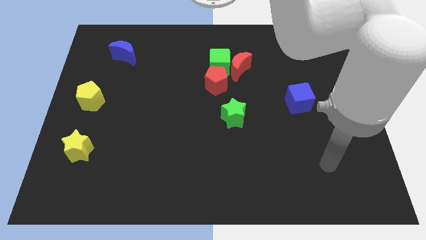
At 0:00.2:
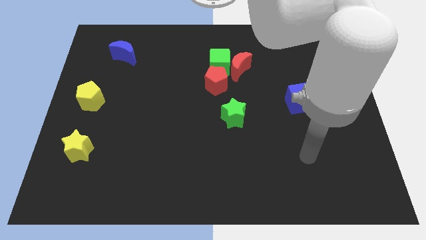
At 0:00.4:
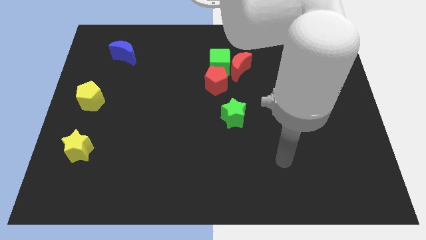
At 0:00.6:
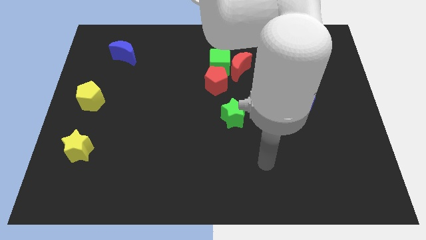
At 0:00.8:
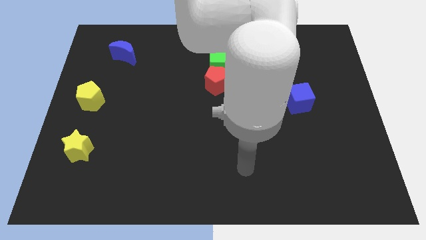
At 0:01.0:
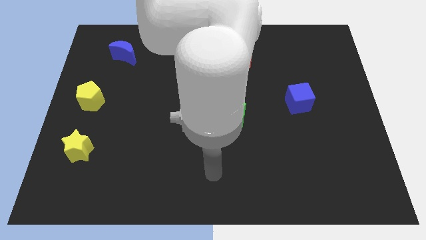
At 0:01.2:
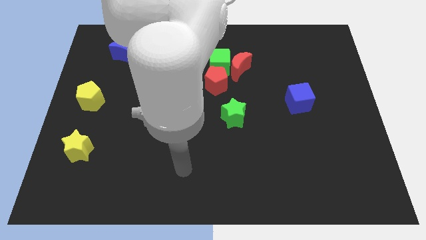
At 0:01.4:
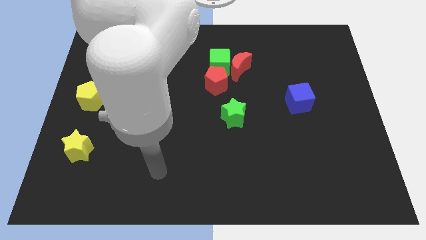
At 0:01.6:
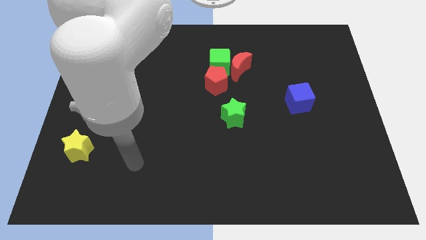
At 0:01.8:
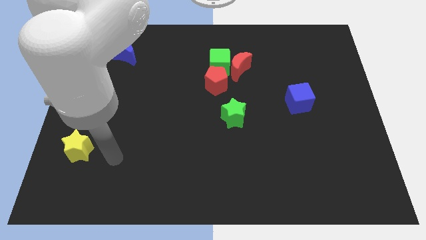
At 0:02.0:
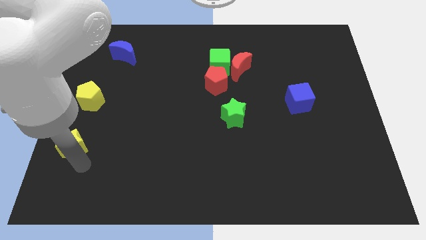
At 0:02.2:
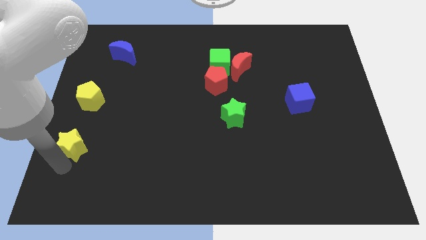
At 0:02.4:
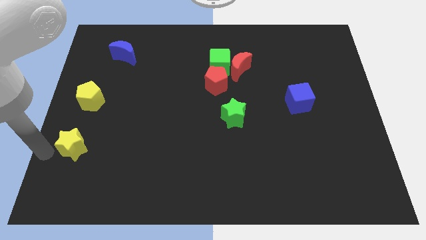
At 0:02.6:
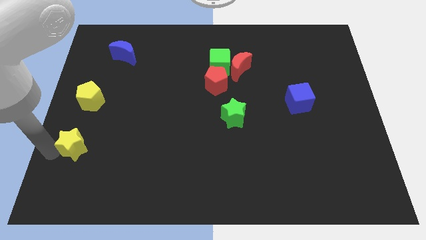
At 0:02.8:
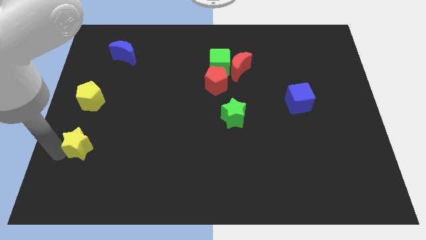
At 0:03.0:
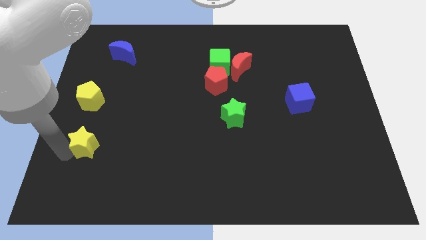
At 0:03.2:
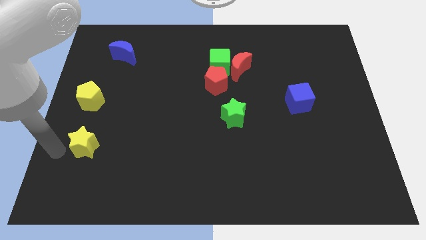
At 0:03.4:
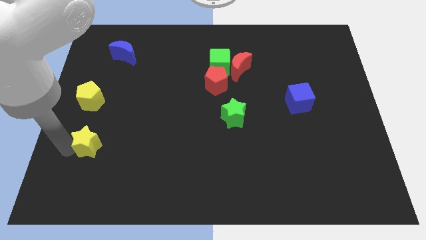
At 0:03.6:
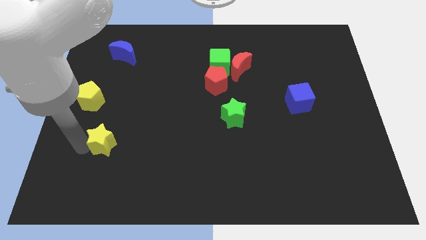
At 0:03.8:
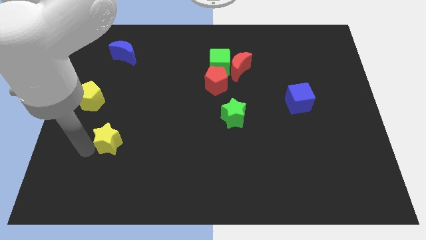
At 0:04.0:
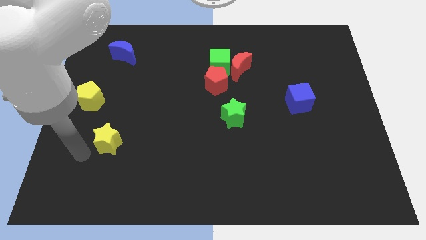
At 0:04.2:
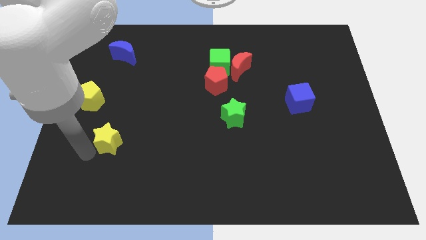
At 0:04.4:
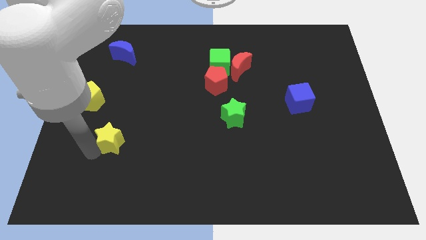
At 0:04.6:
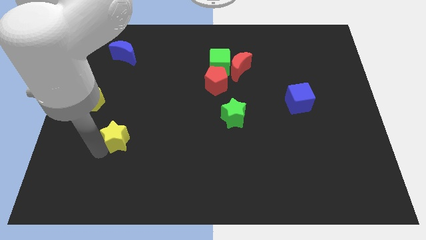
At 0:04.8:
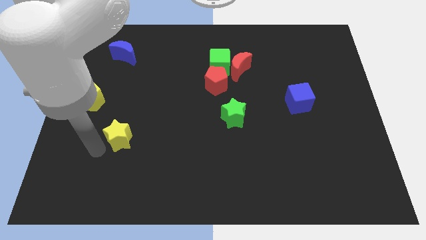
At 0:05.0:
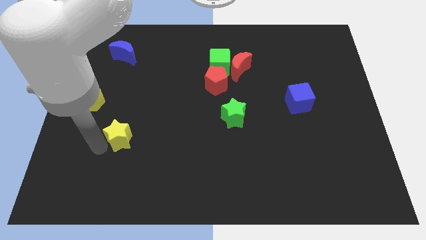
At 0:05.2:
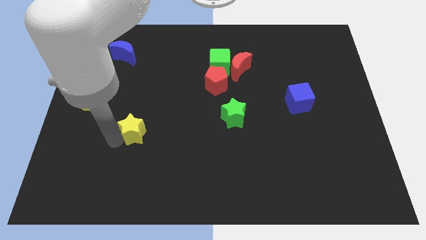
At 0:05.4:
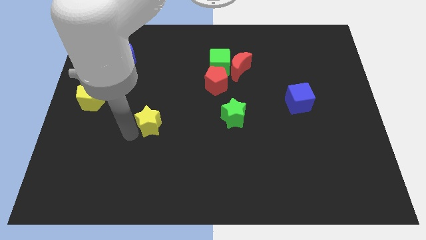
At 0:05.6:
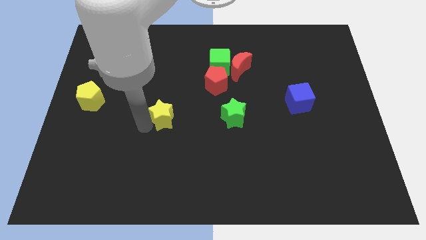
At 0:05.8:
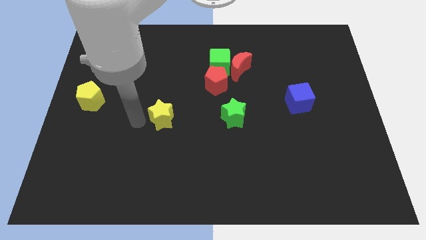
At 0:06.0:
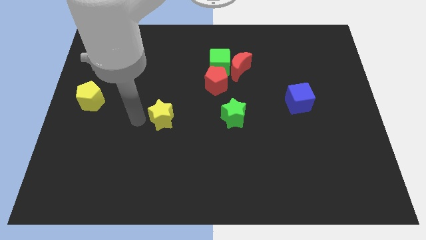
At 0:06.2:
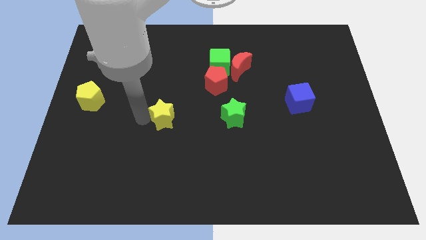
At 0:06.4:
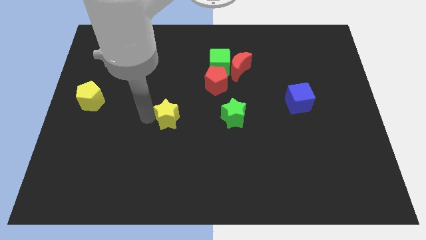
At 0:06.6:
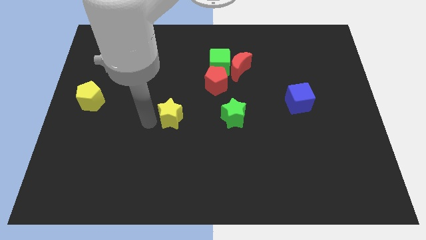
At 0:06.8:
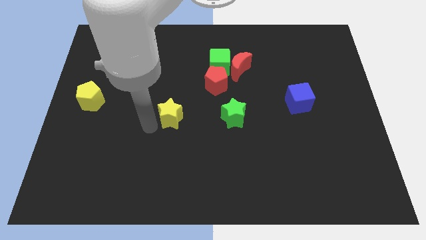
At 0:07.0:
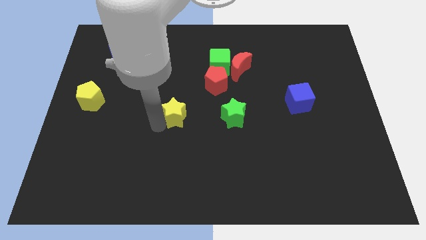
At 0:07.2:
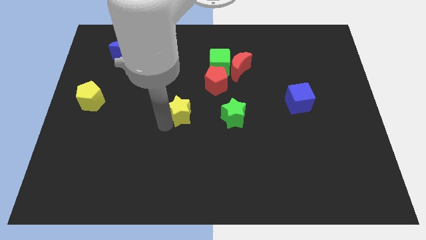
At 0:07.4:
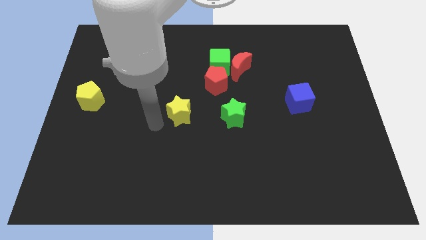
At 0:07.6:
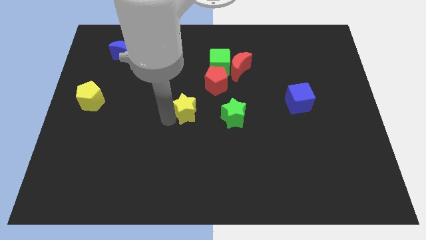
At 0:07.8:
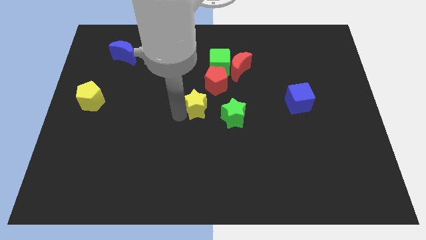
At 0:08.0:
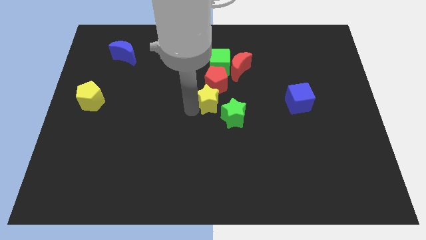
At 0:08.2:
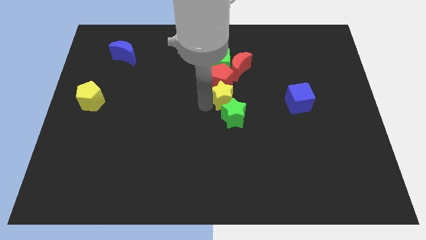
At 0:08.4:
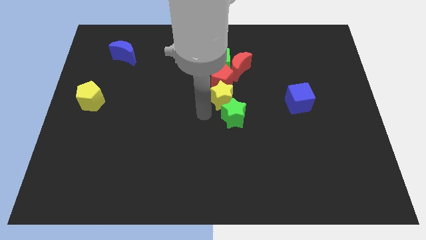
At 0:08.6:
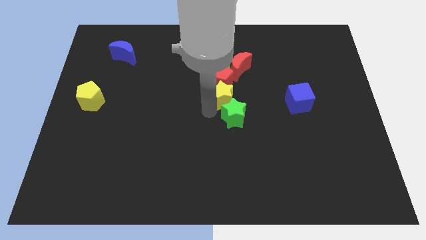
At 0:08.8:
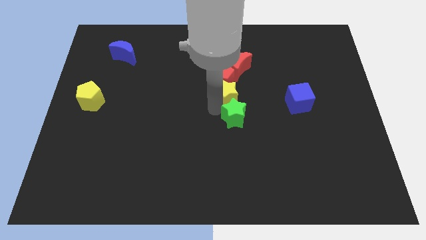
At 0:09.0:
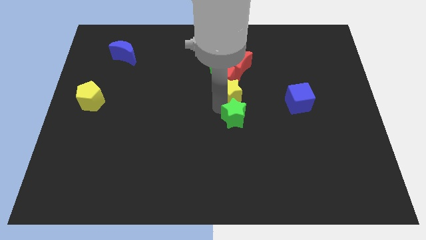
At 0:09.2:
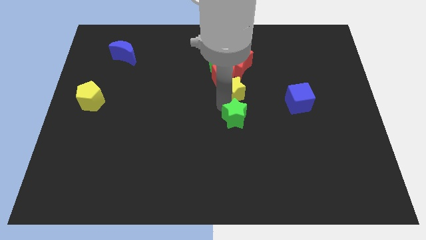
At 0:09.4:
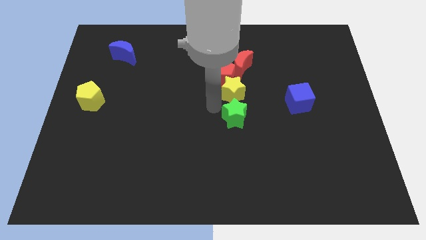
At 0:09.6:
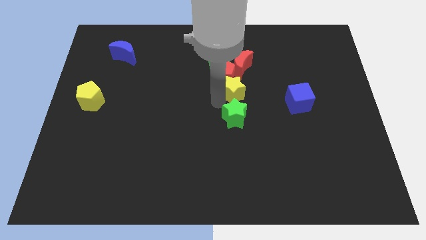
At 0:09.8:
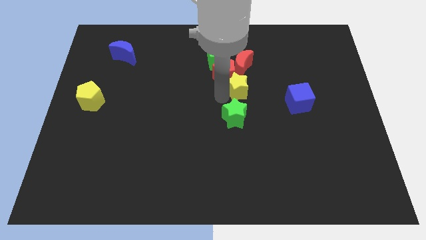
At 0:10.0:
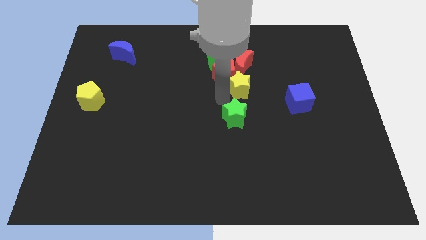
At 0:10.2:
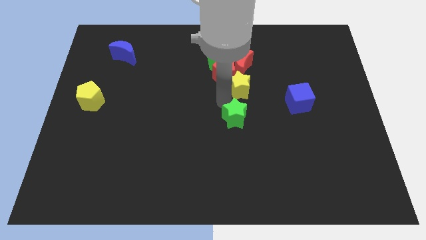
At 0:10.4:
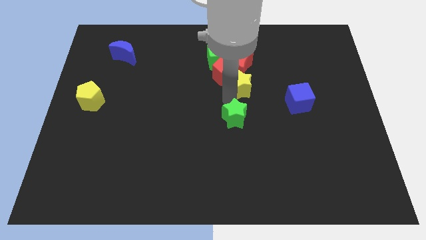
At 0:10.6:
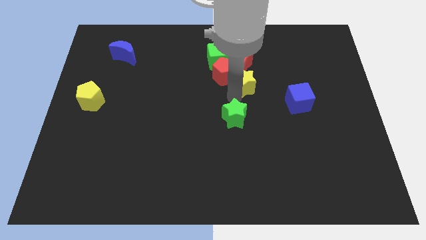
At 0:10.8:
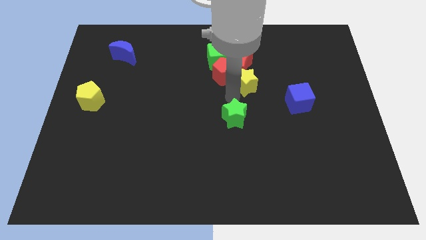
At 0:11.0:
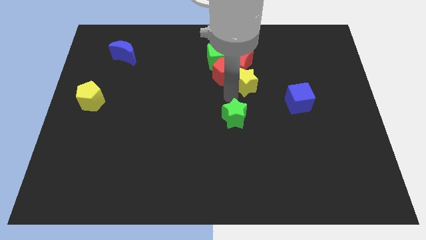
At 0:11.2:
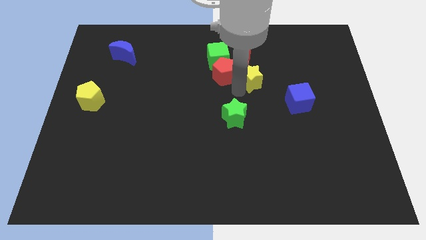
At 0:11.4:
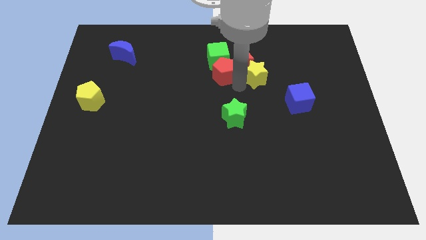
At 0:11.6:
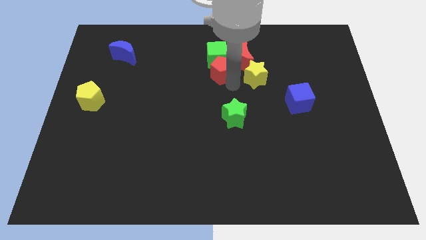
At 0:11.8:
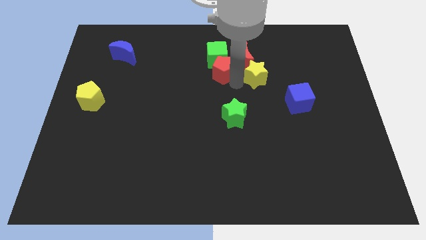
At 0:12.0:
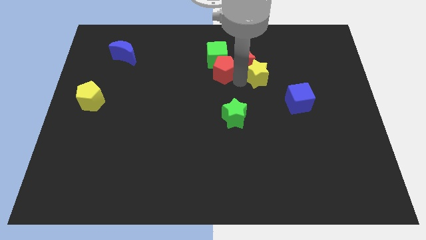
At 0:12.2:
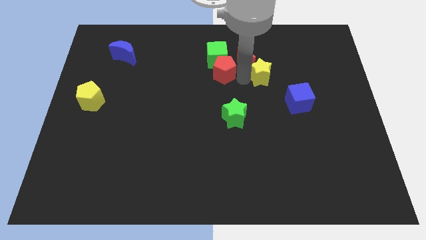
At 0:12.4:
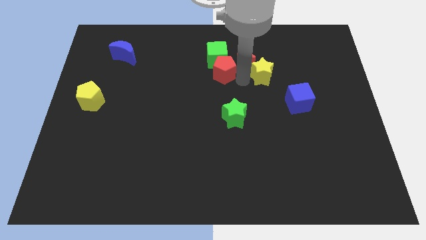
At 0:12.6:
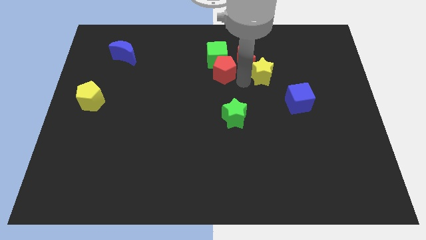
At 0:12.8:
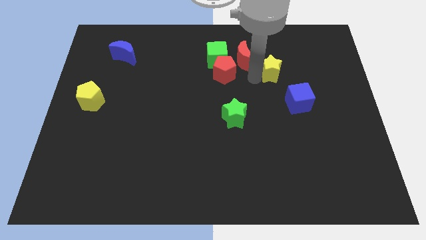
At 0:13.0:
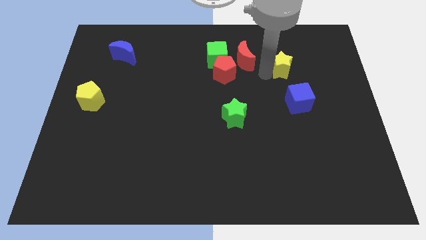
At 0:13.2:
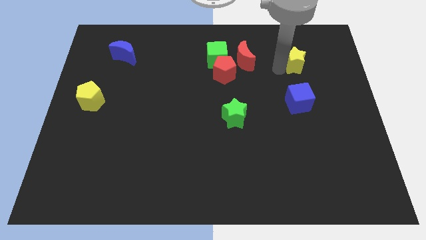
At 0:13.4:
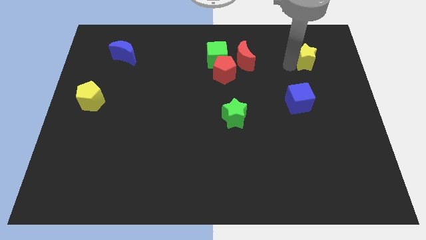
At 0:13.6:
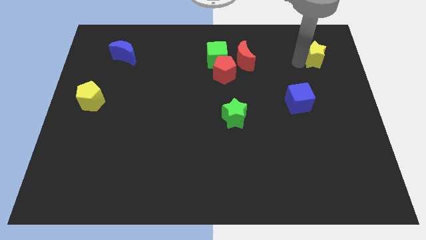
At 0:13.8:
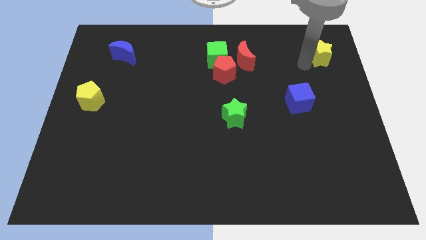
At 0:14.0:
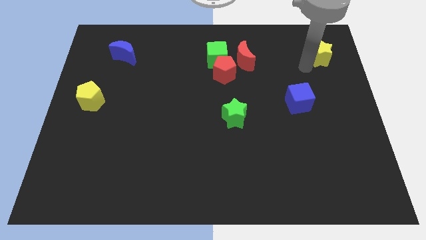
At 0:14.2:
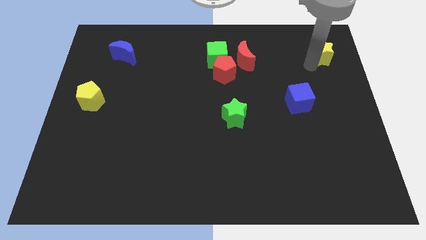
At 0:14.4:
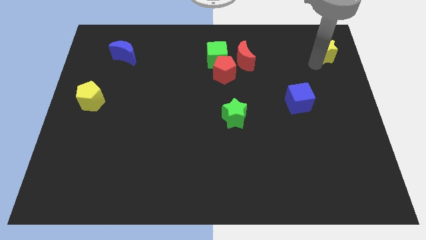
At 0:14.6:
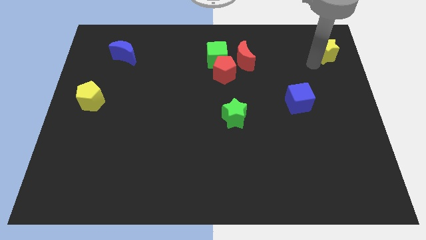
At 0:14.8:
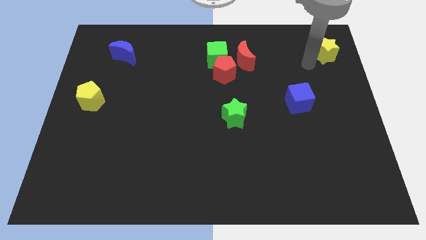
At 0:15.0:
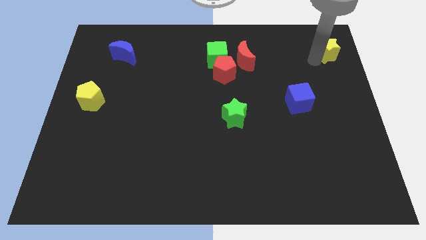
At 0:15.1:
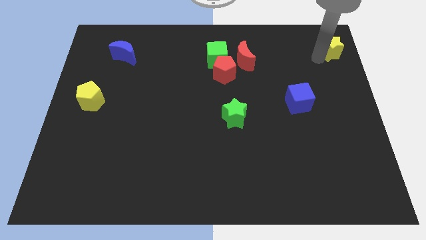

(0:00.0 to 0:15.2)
put the yellow star to the upper right corner
